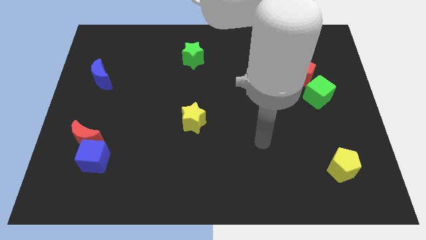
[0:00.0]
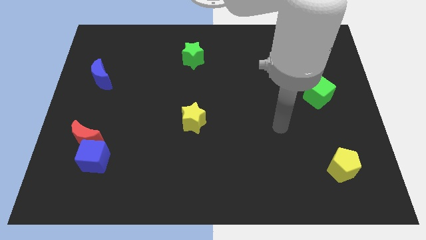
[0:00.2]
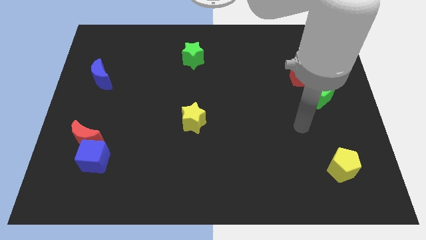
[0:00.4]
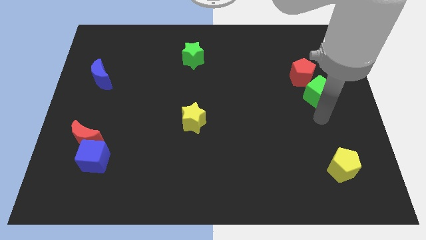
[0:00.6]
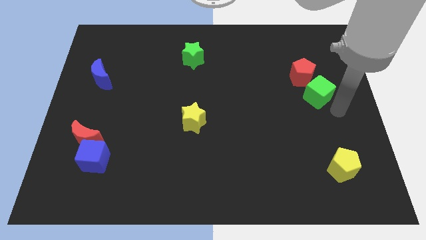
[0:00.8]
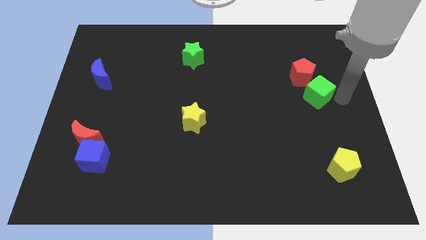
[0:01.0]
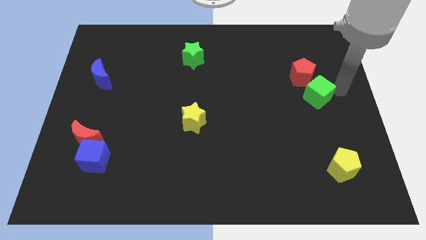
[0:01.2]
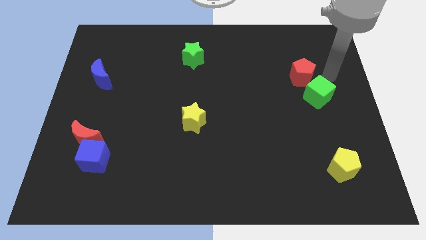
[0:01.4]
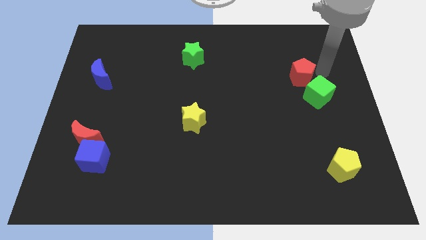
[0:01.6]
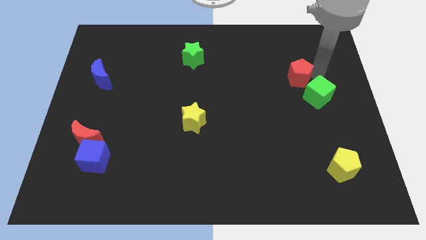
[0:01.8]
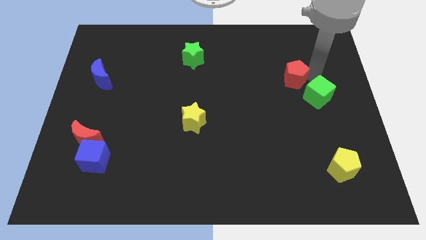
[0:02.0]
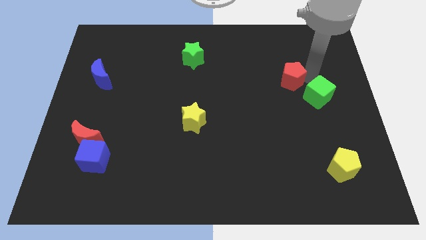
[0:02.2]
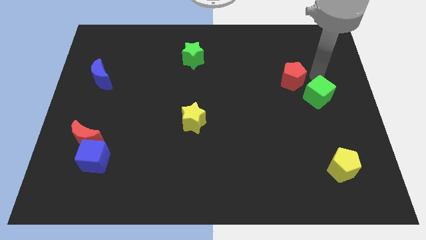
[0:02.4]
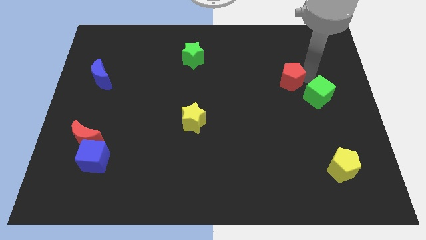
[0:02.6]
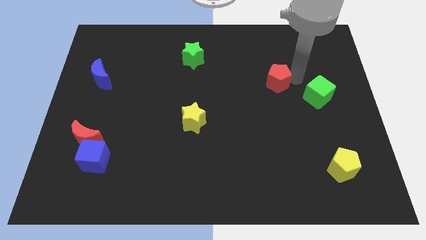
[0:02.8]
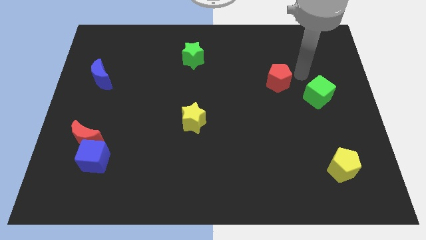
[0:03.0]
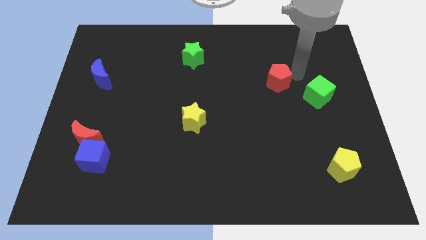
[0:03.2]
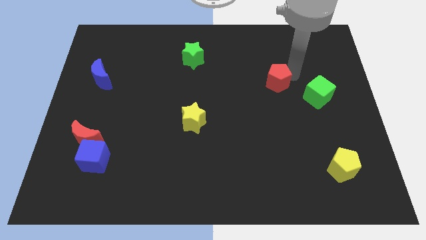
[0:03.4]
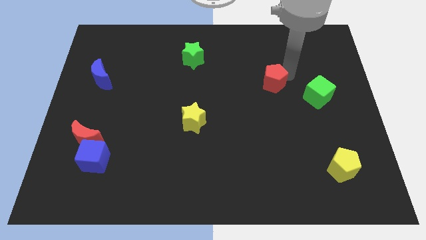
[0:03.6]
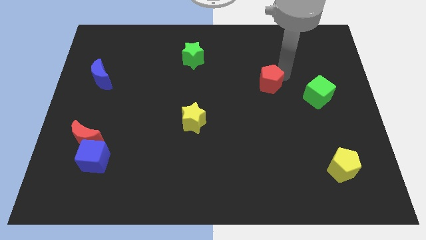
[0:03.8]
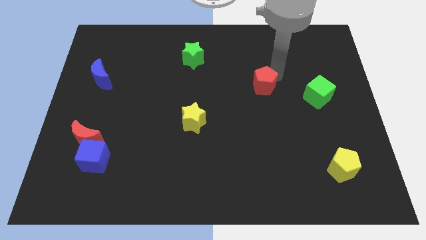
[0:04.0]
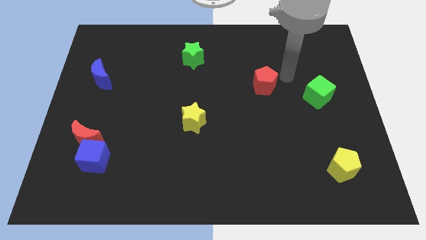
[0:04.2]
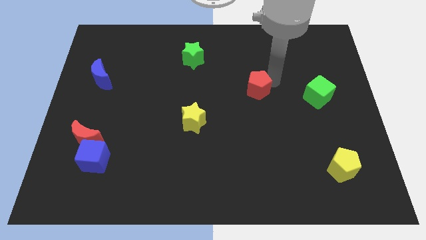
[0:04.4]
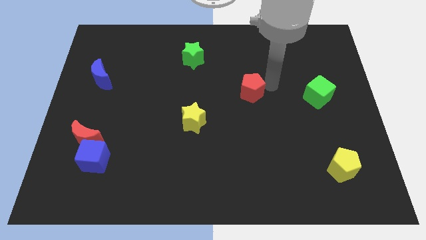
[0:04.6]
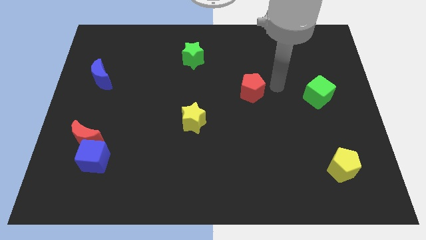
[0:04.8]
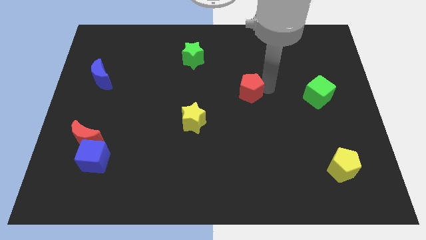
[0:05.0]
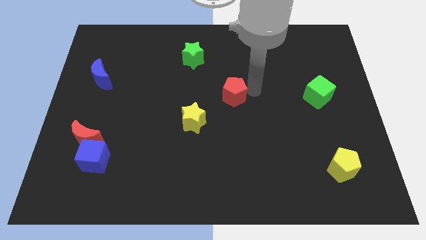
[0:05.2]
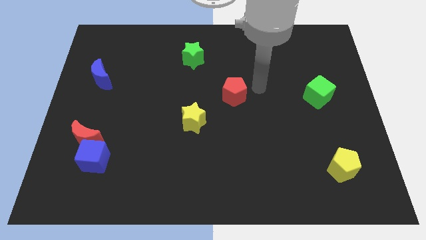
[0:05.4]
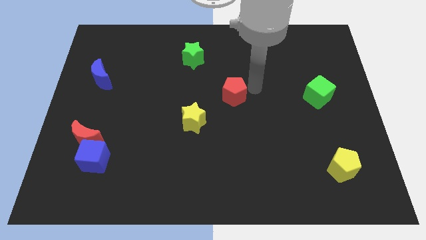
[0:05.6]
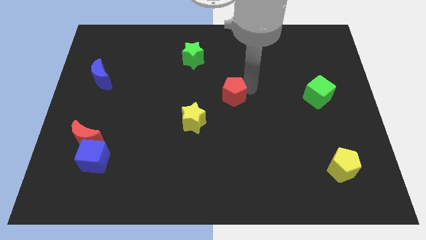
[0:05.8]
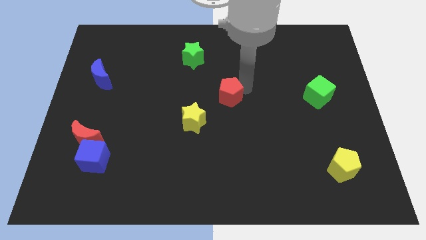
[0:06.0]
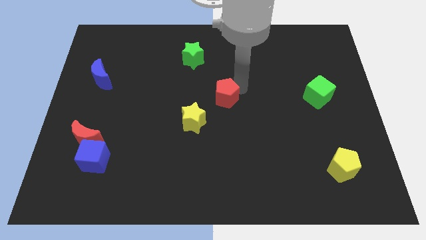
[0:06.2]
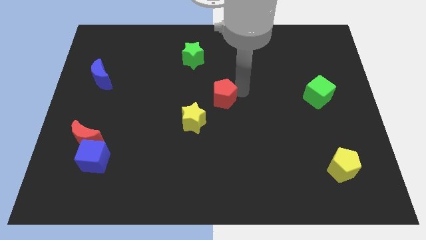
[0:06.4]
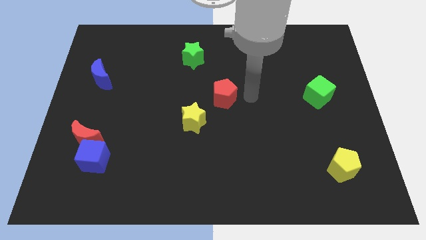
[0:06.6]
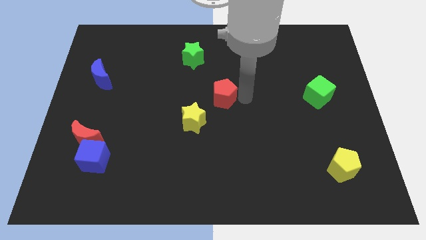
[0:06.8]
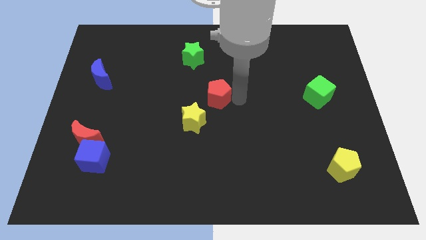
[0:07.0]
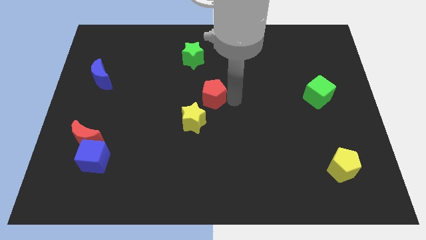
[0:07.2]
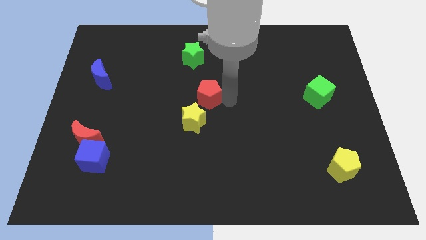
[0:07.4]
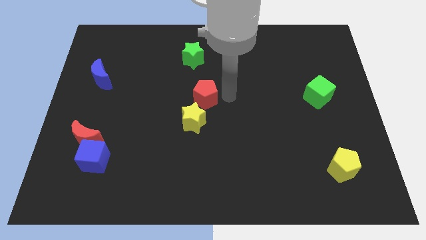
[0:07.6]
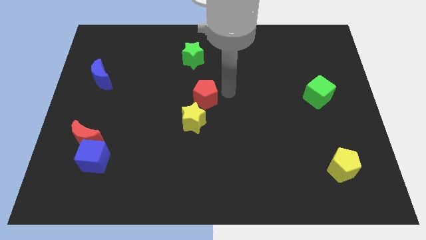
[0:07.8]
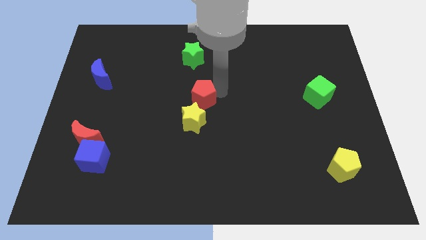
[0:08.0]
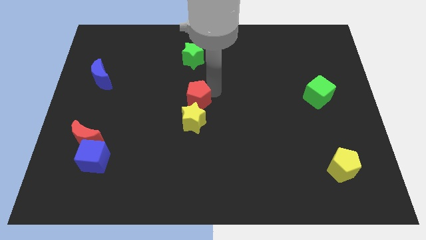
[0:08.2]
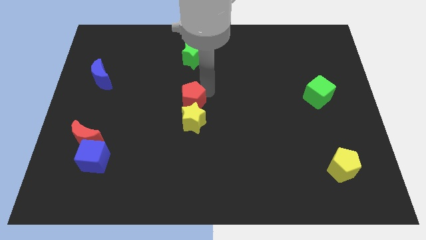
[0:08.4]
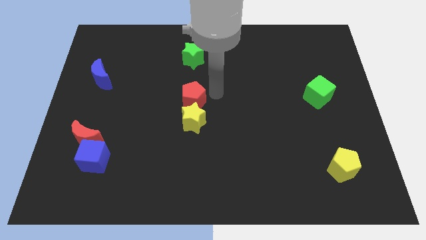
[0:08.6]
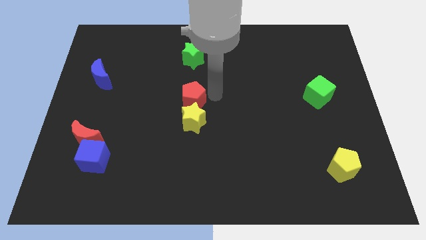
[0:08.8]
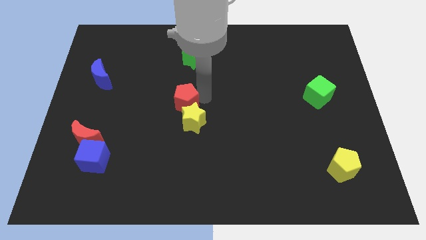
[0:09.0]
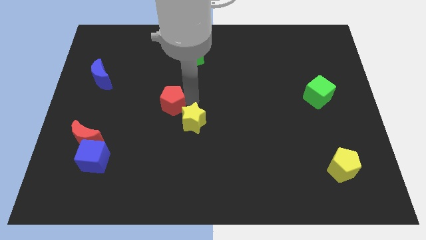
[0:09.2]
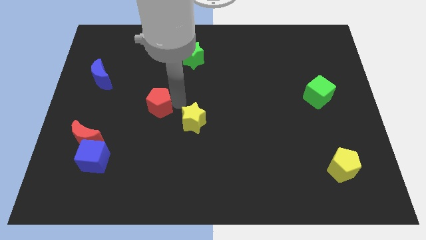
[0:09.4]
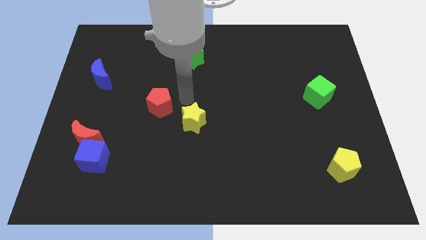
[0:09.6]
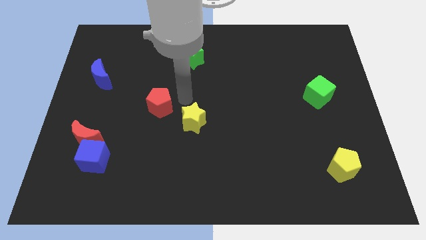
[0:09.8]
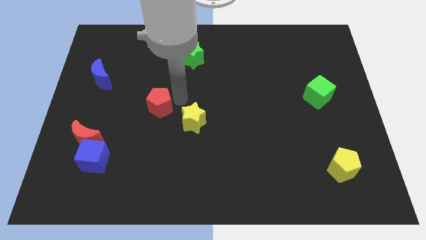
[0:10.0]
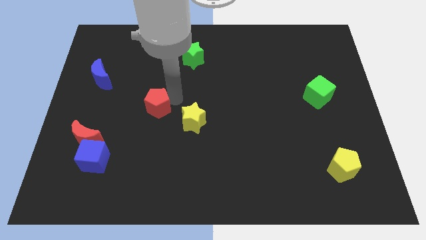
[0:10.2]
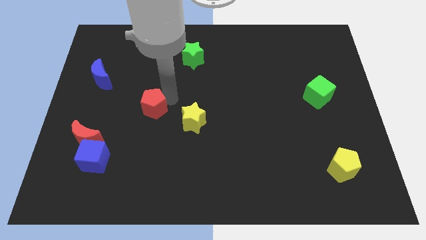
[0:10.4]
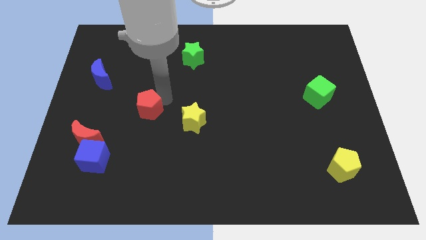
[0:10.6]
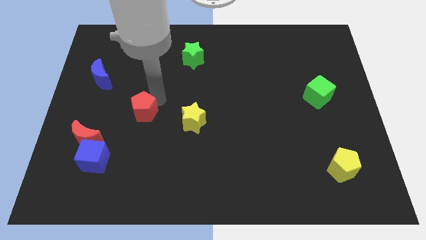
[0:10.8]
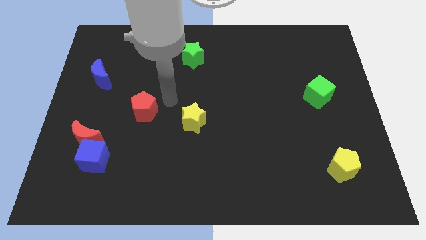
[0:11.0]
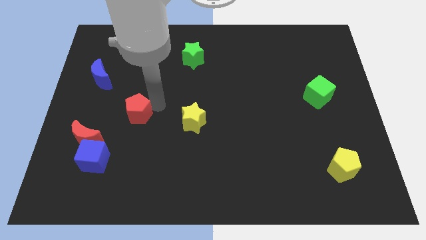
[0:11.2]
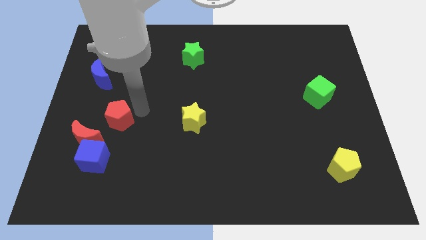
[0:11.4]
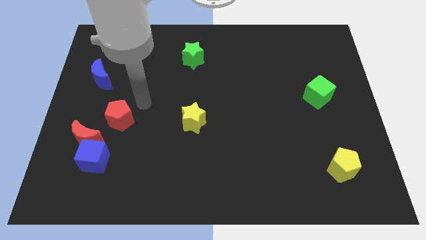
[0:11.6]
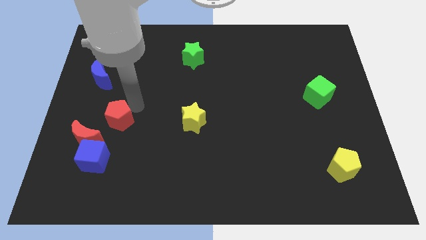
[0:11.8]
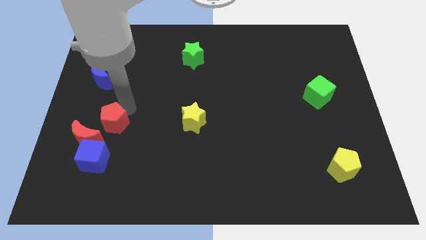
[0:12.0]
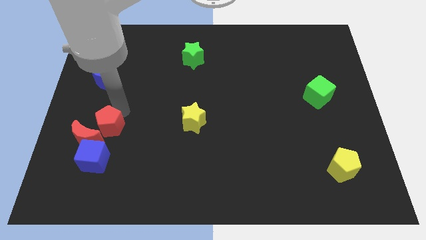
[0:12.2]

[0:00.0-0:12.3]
move the red pentagon towards the red moon
